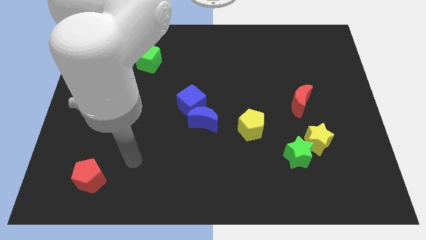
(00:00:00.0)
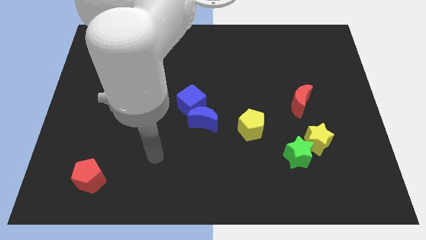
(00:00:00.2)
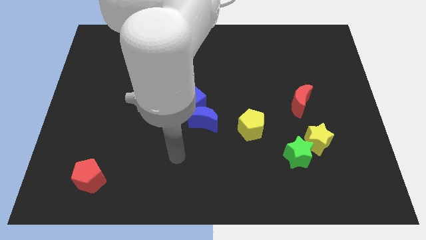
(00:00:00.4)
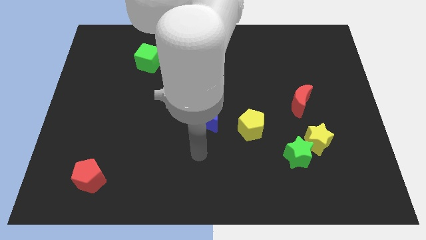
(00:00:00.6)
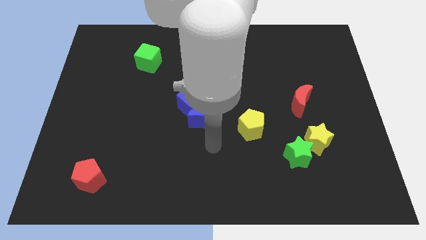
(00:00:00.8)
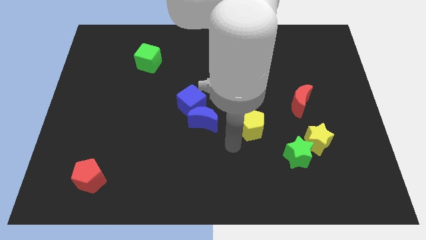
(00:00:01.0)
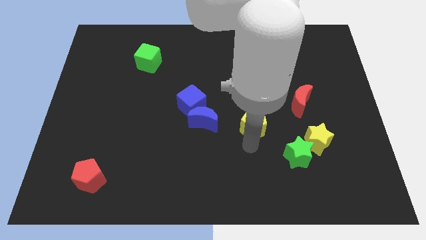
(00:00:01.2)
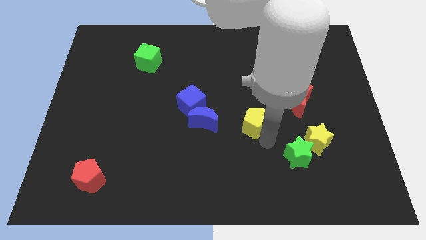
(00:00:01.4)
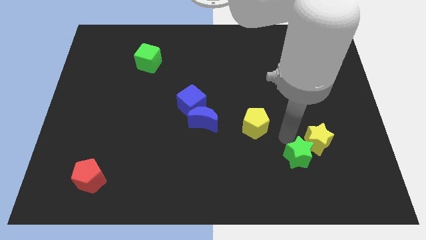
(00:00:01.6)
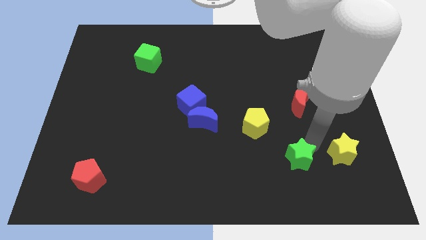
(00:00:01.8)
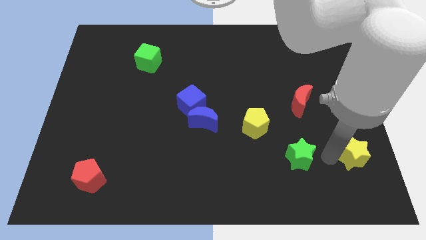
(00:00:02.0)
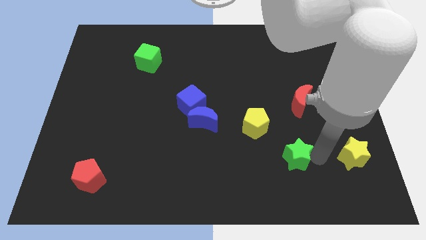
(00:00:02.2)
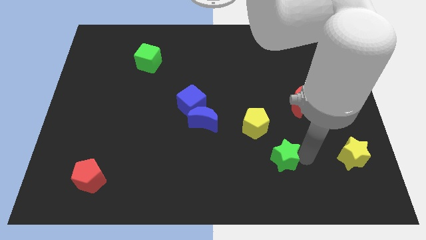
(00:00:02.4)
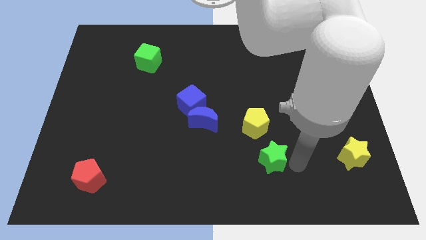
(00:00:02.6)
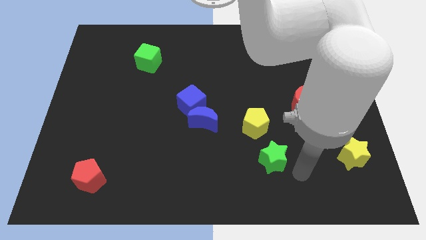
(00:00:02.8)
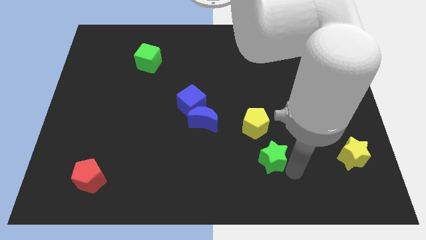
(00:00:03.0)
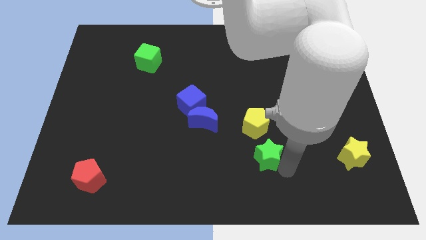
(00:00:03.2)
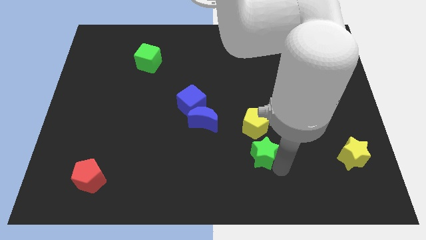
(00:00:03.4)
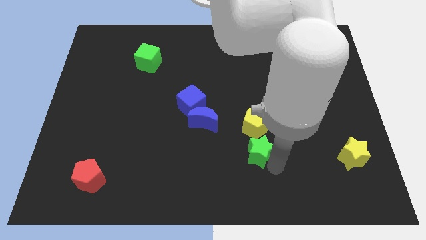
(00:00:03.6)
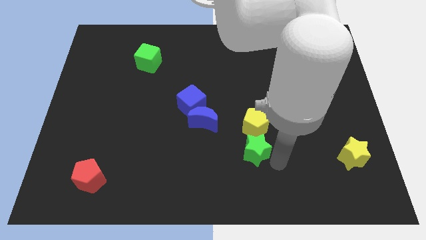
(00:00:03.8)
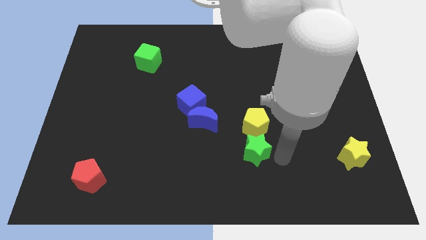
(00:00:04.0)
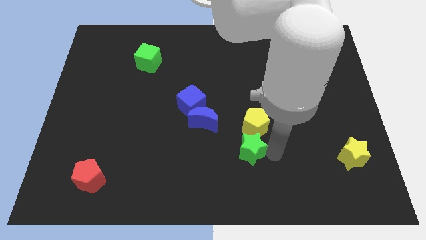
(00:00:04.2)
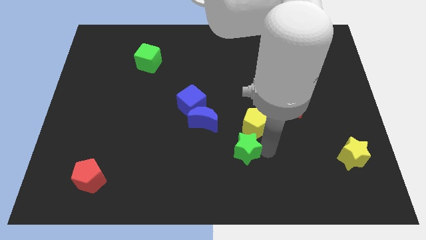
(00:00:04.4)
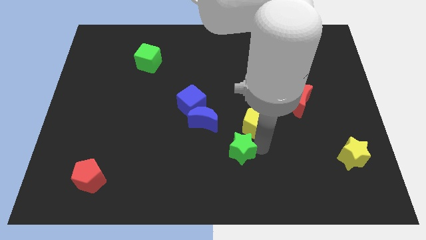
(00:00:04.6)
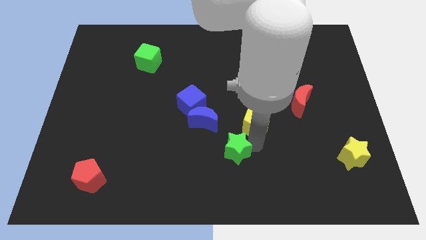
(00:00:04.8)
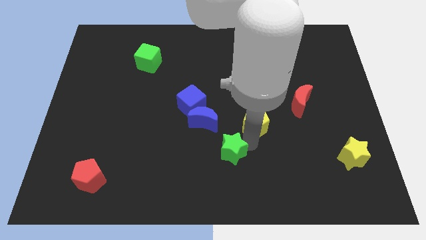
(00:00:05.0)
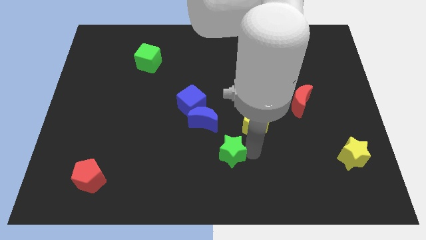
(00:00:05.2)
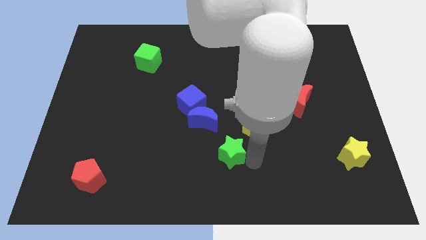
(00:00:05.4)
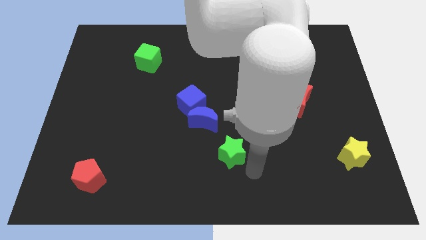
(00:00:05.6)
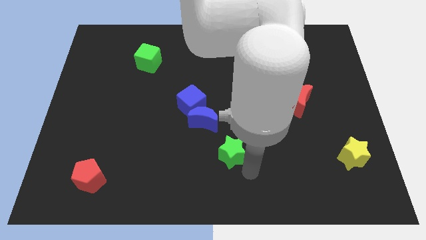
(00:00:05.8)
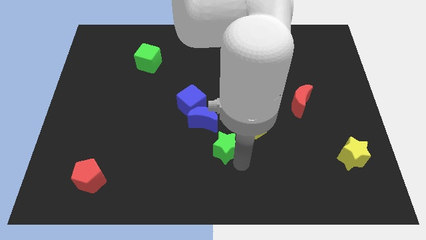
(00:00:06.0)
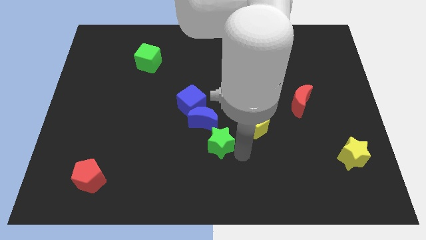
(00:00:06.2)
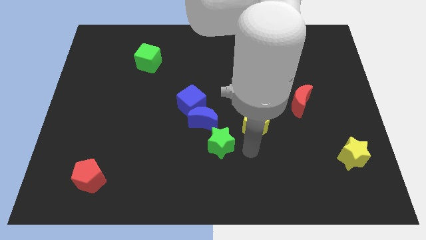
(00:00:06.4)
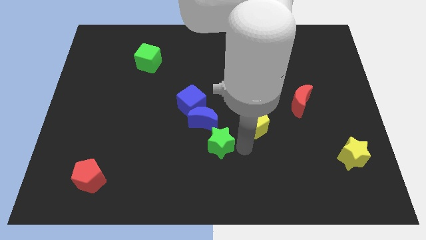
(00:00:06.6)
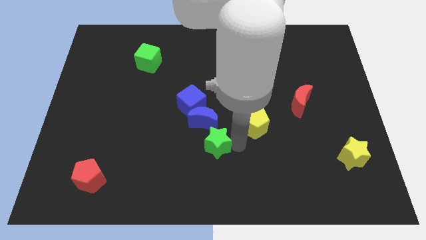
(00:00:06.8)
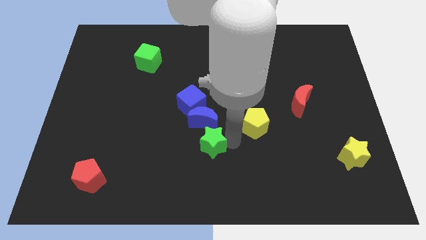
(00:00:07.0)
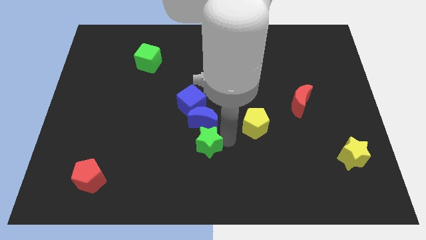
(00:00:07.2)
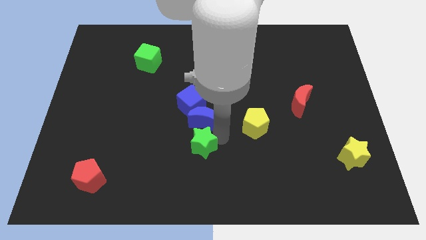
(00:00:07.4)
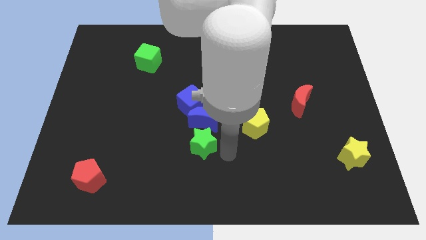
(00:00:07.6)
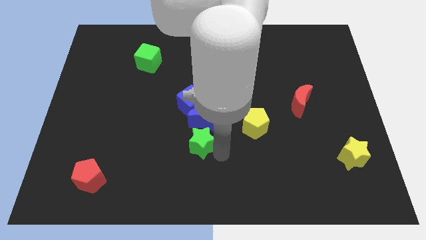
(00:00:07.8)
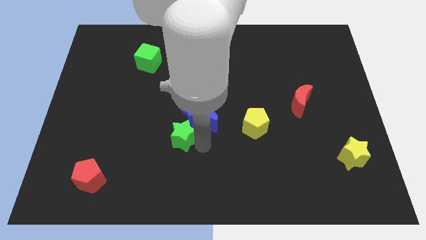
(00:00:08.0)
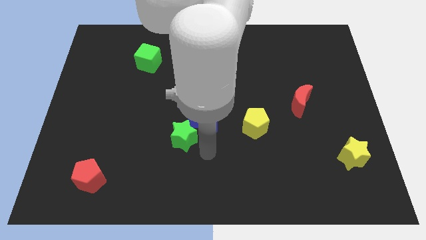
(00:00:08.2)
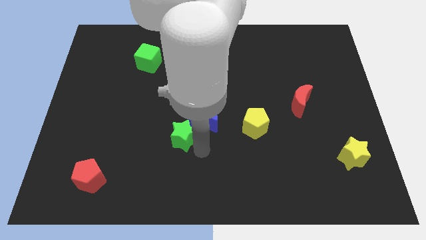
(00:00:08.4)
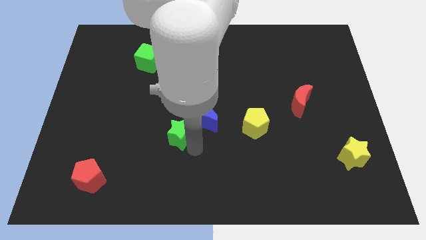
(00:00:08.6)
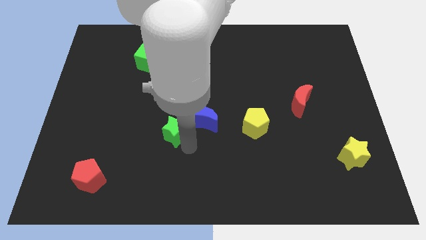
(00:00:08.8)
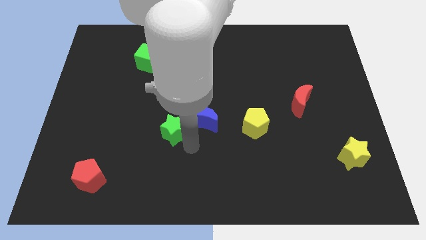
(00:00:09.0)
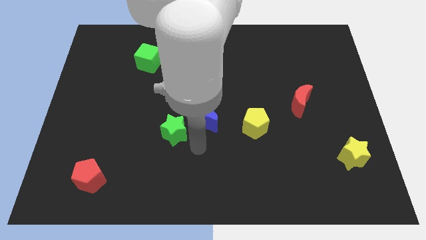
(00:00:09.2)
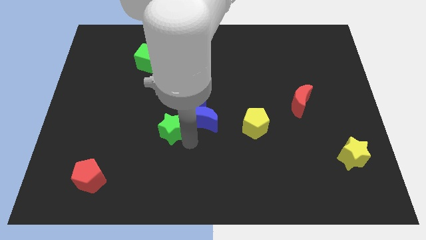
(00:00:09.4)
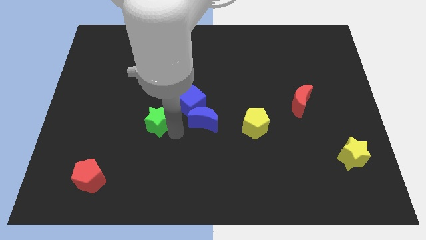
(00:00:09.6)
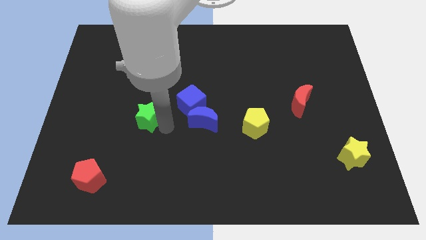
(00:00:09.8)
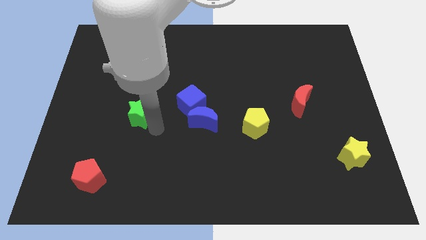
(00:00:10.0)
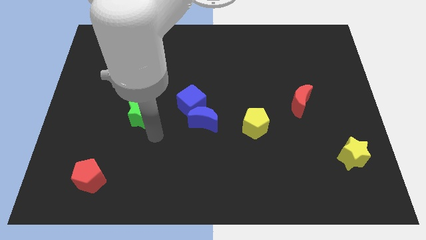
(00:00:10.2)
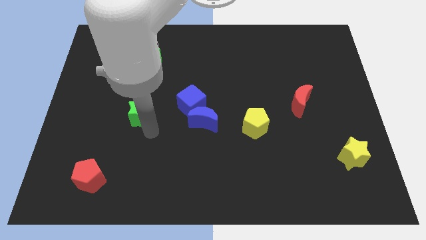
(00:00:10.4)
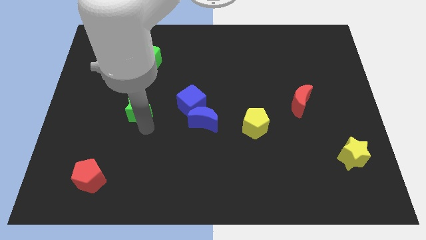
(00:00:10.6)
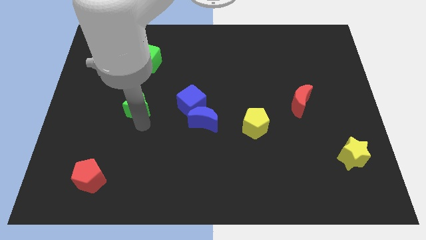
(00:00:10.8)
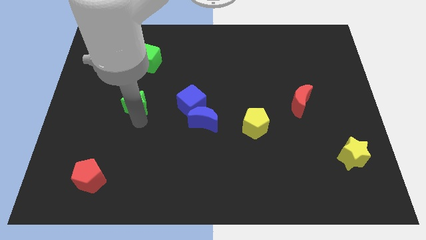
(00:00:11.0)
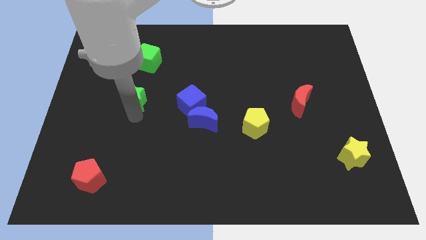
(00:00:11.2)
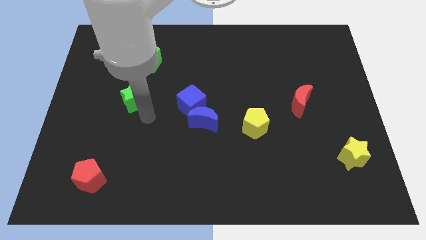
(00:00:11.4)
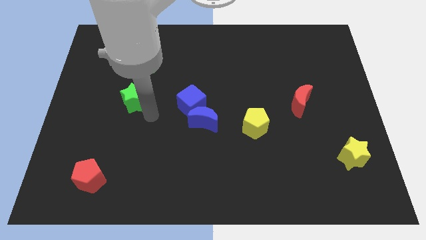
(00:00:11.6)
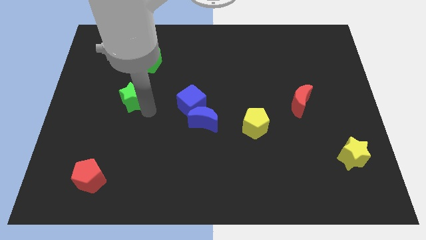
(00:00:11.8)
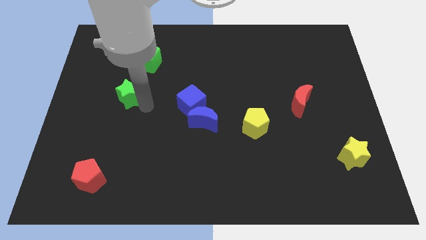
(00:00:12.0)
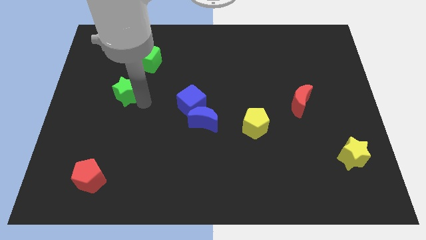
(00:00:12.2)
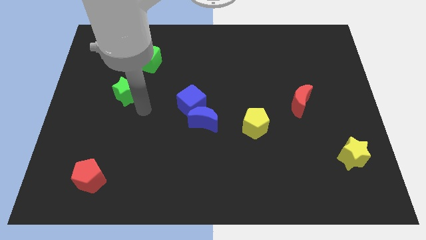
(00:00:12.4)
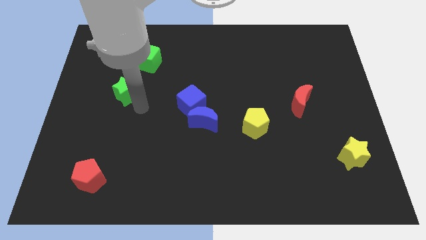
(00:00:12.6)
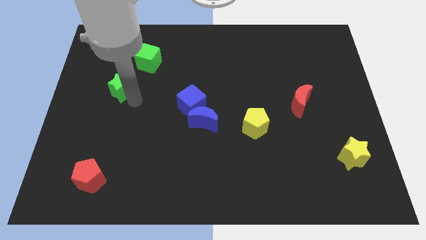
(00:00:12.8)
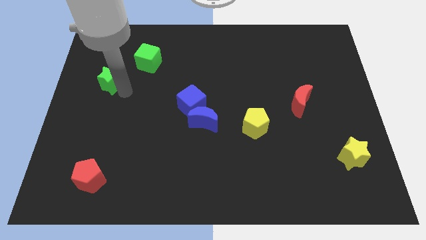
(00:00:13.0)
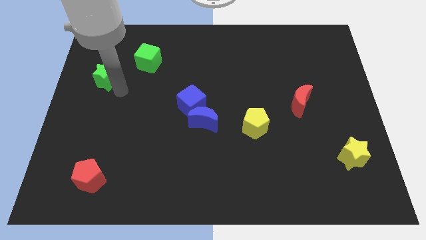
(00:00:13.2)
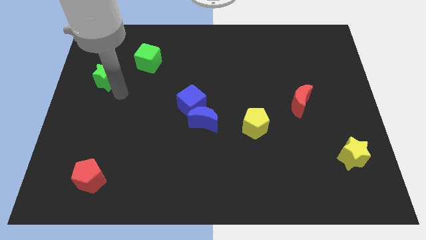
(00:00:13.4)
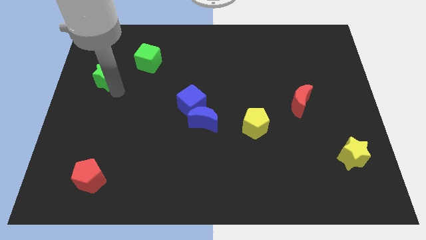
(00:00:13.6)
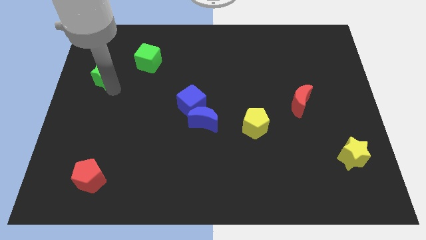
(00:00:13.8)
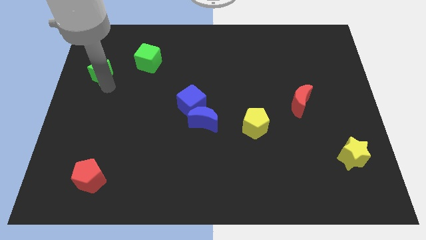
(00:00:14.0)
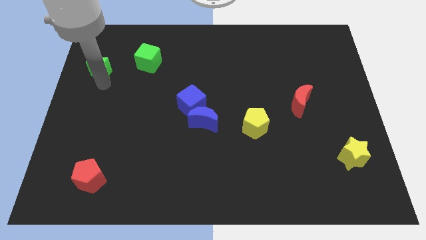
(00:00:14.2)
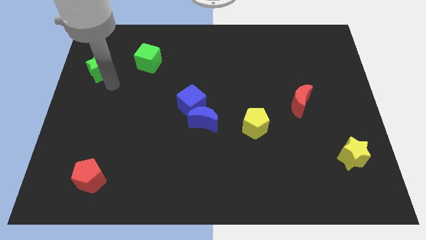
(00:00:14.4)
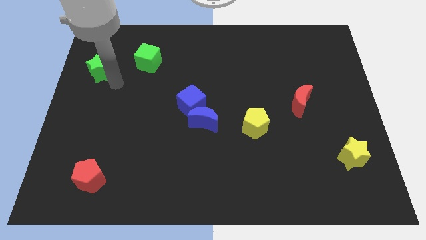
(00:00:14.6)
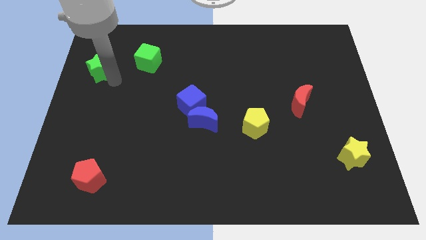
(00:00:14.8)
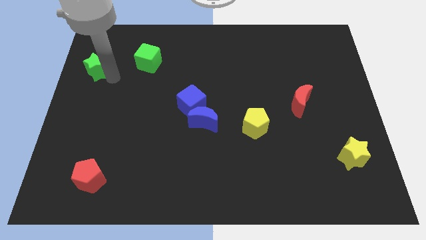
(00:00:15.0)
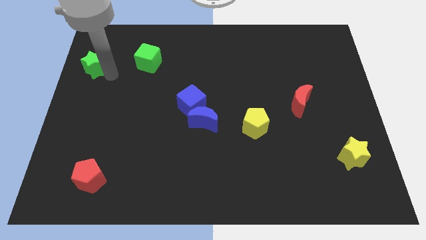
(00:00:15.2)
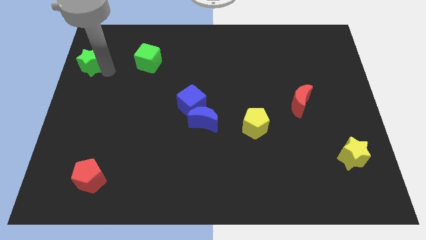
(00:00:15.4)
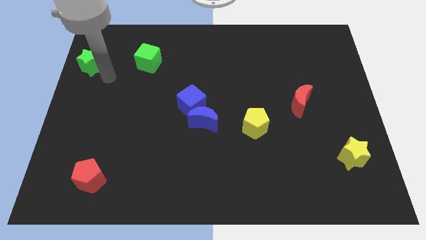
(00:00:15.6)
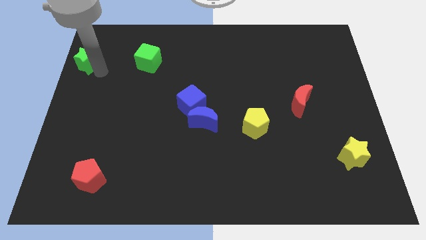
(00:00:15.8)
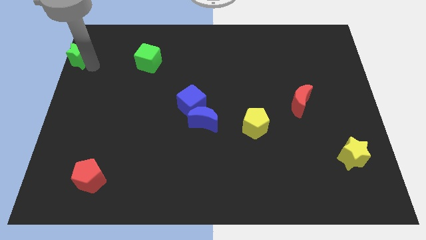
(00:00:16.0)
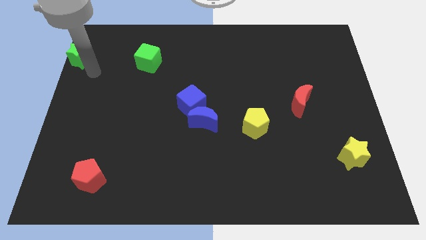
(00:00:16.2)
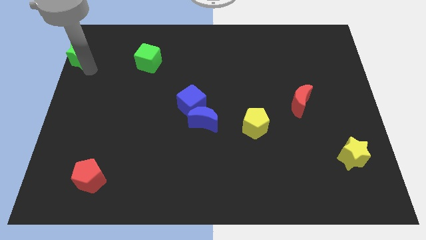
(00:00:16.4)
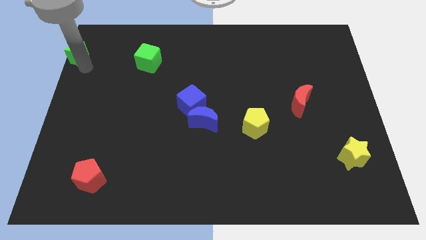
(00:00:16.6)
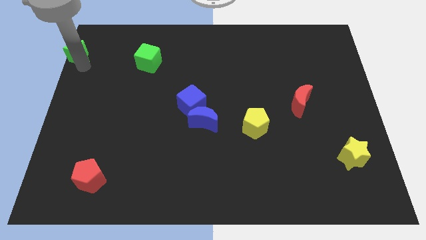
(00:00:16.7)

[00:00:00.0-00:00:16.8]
push the green star to the top left corner
